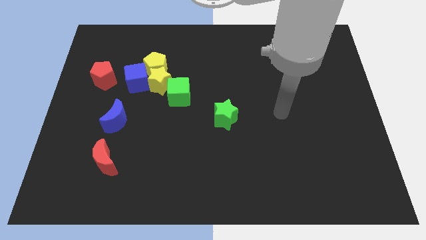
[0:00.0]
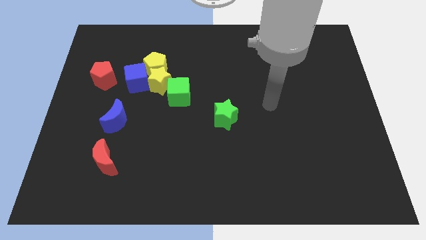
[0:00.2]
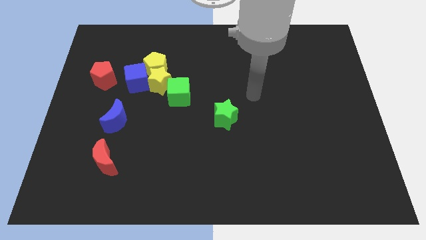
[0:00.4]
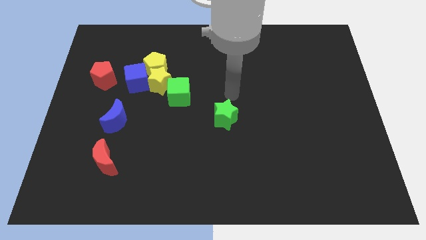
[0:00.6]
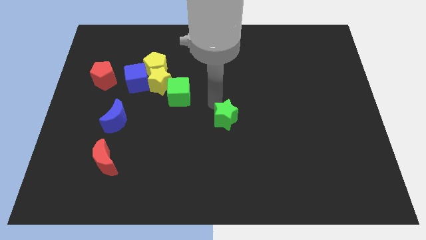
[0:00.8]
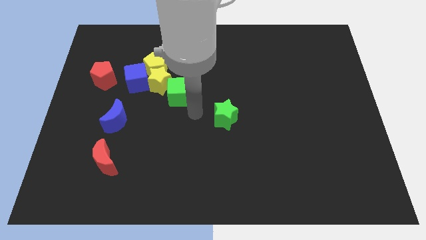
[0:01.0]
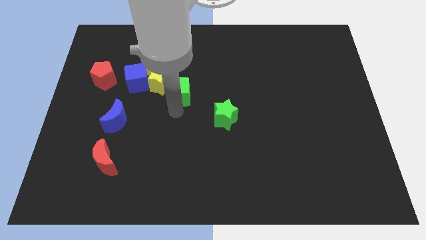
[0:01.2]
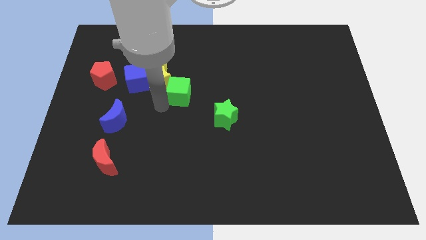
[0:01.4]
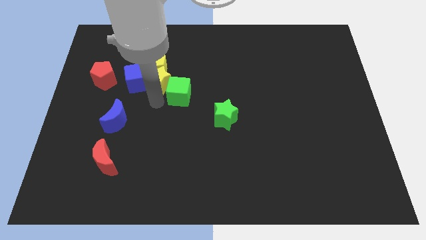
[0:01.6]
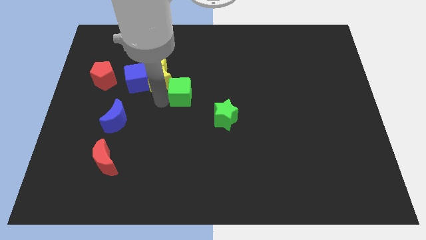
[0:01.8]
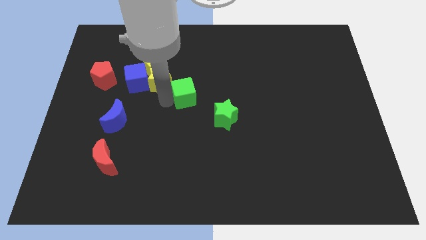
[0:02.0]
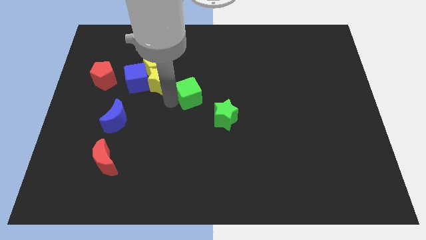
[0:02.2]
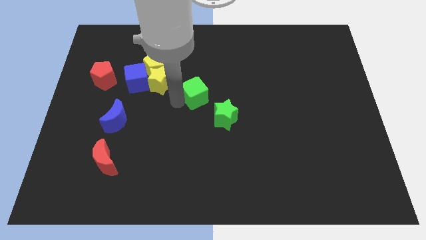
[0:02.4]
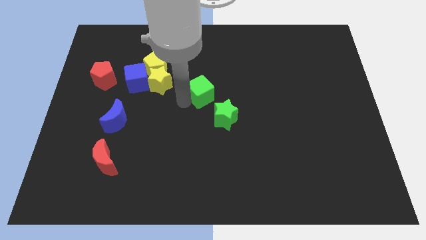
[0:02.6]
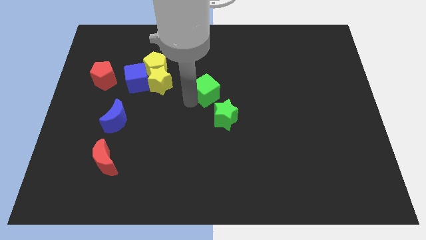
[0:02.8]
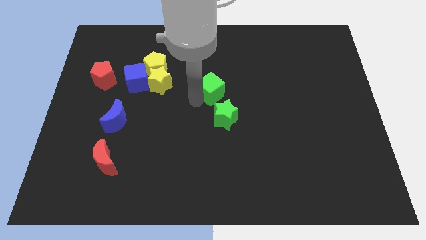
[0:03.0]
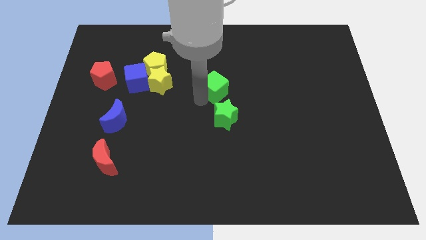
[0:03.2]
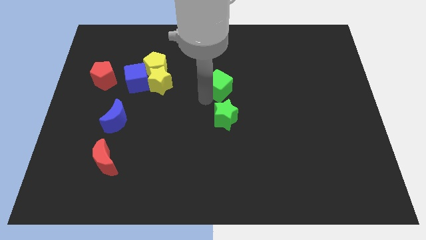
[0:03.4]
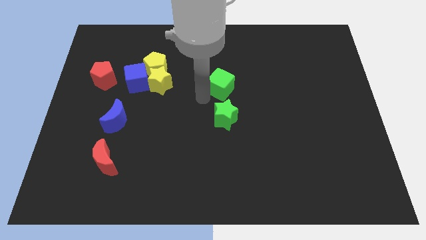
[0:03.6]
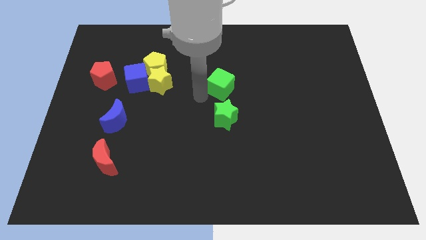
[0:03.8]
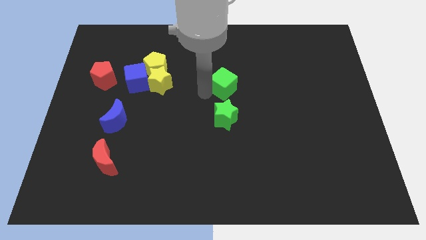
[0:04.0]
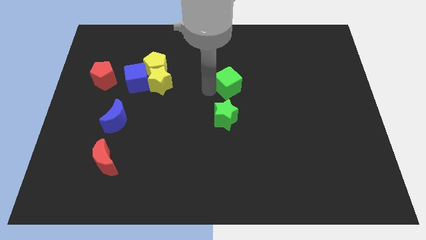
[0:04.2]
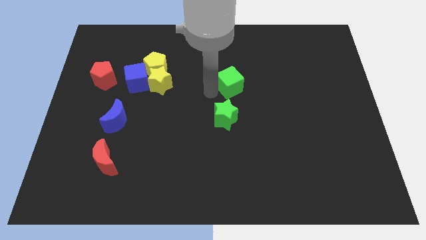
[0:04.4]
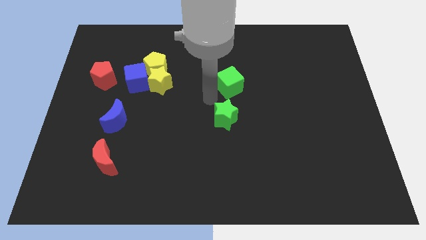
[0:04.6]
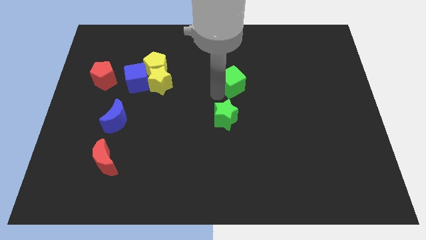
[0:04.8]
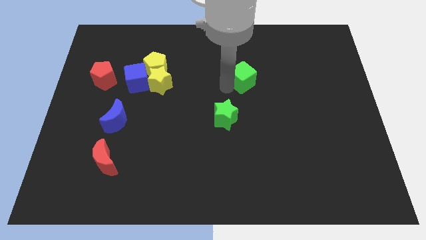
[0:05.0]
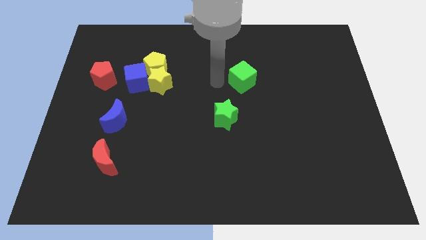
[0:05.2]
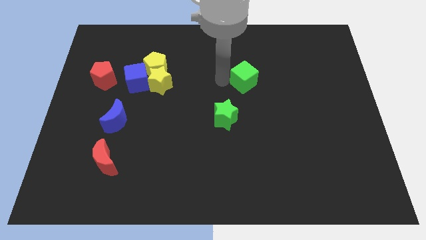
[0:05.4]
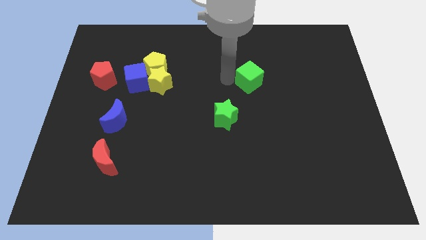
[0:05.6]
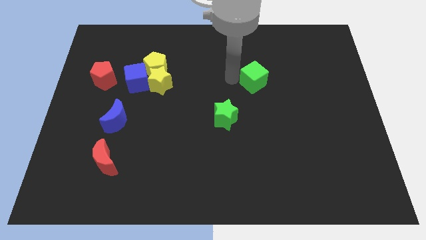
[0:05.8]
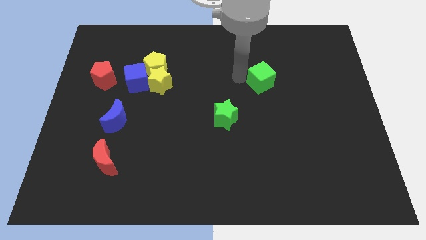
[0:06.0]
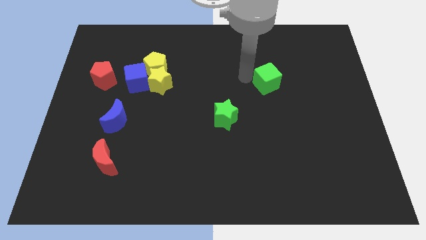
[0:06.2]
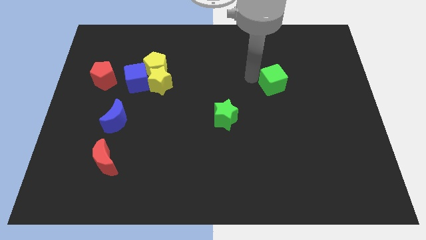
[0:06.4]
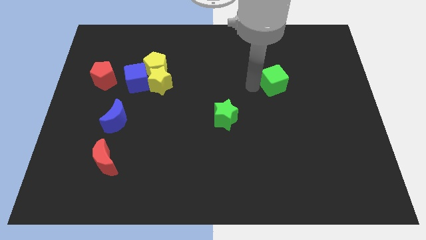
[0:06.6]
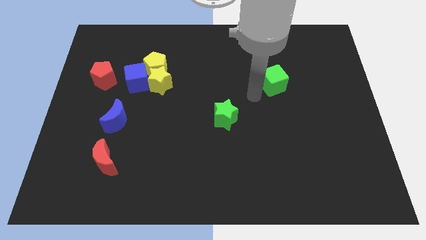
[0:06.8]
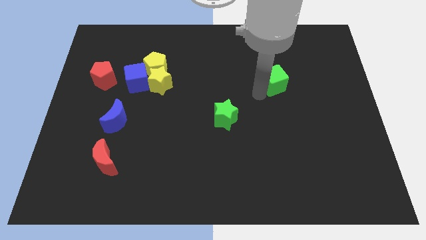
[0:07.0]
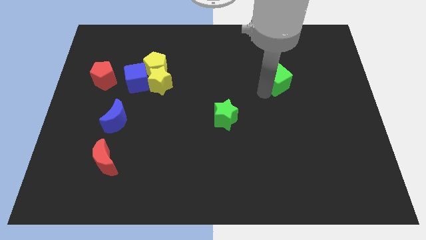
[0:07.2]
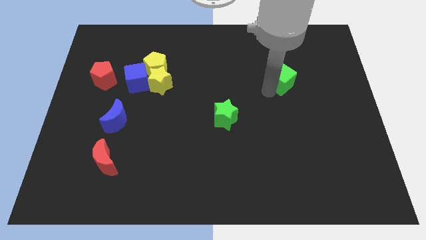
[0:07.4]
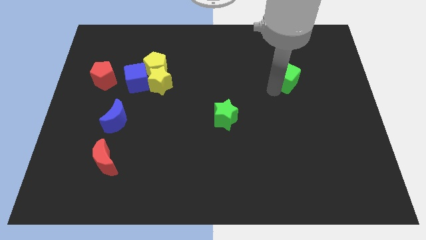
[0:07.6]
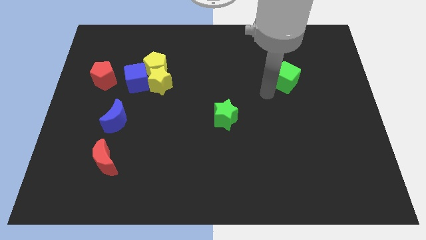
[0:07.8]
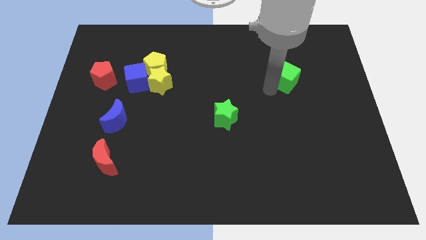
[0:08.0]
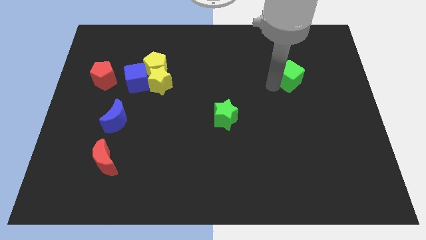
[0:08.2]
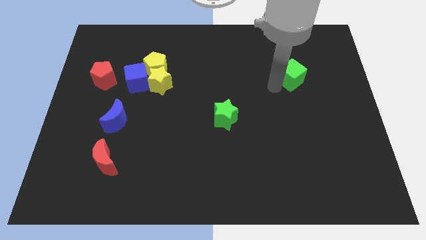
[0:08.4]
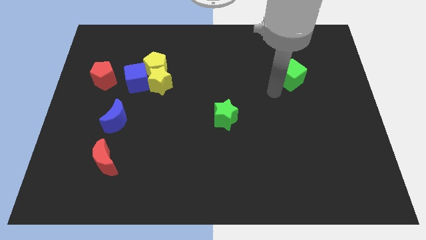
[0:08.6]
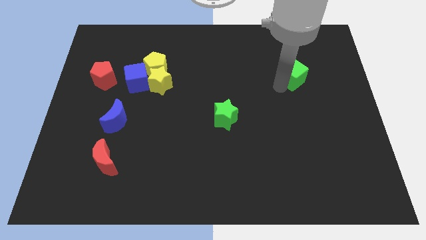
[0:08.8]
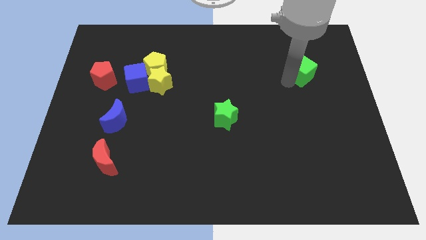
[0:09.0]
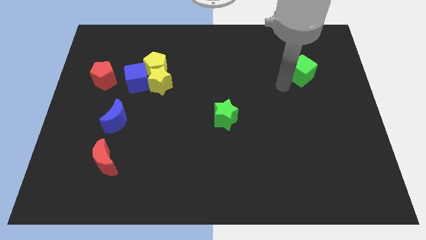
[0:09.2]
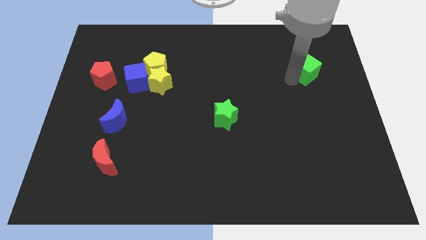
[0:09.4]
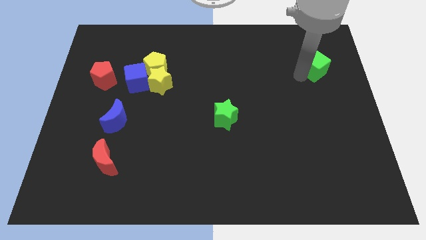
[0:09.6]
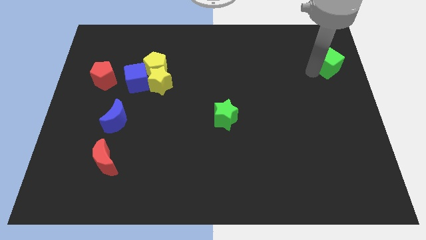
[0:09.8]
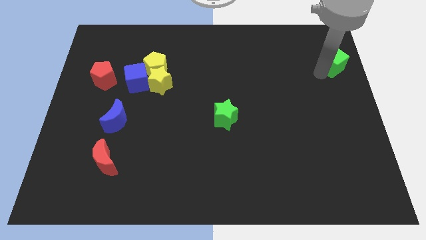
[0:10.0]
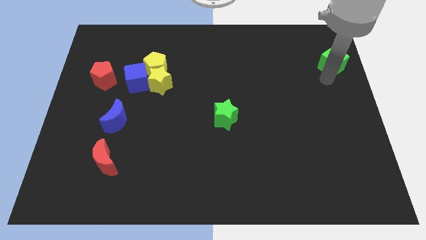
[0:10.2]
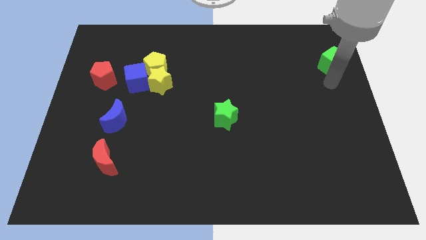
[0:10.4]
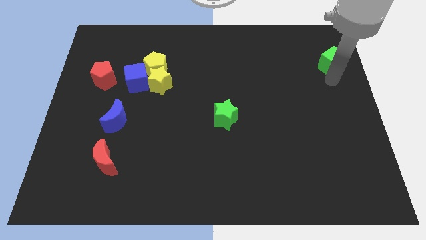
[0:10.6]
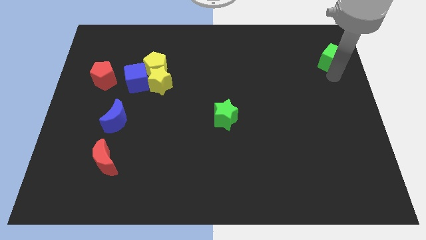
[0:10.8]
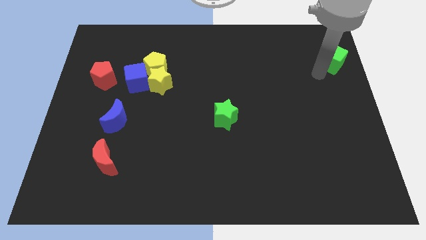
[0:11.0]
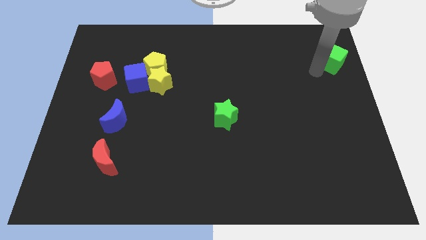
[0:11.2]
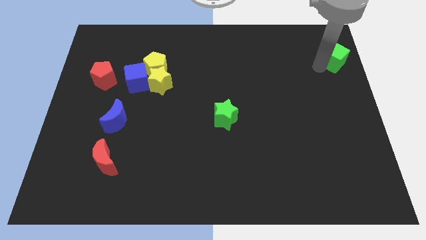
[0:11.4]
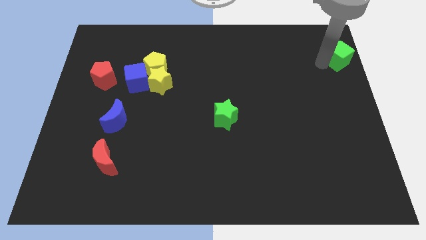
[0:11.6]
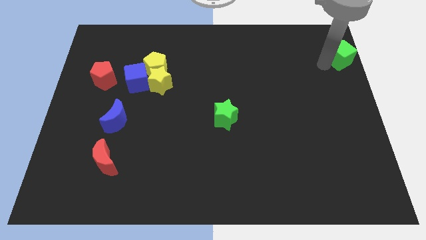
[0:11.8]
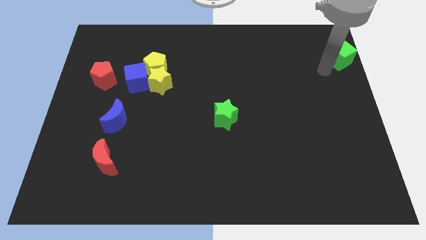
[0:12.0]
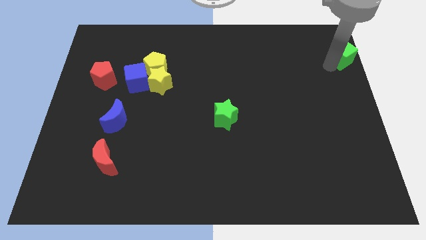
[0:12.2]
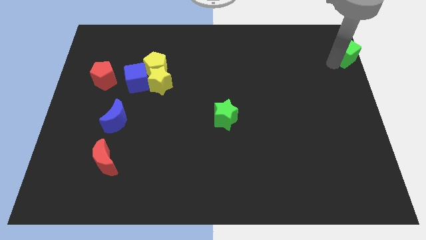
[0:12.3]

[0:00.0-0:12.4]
put the green cube to the top right

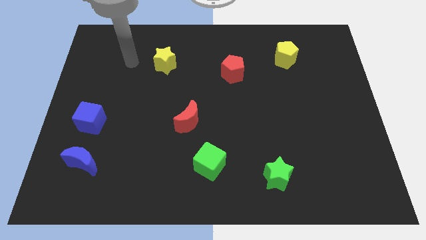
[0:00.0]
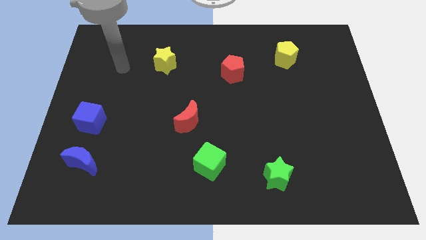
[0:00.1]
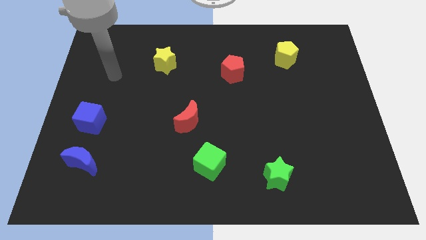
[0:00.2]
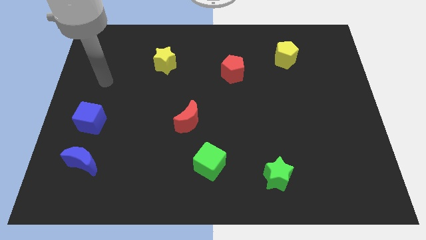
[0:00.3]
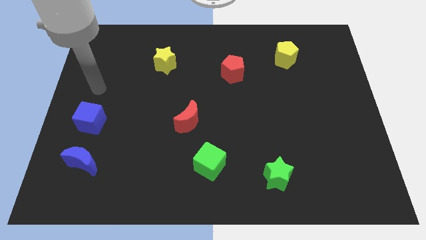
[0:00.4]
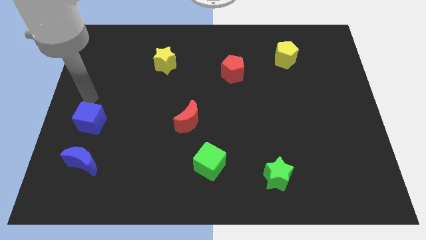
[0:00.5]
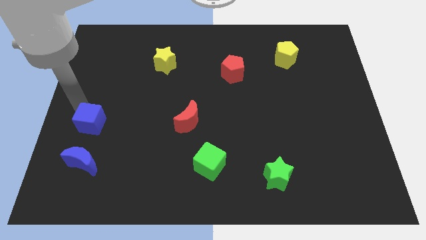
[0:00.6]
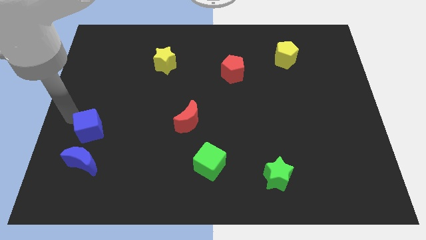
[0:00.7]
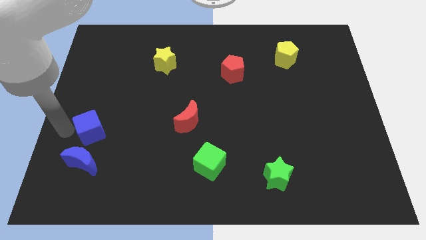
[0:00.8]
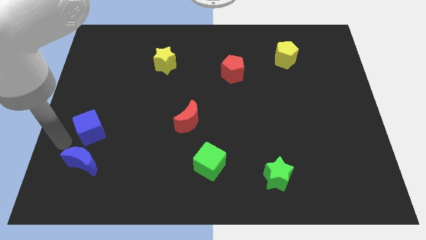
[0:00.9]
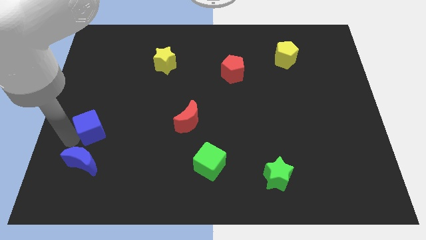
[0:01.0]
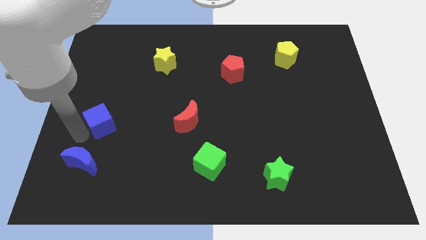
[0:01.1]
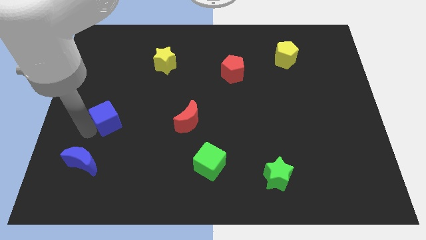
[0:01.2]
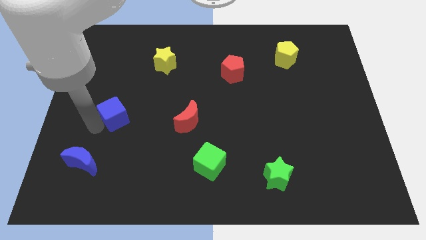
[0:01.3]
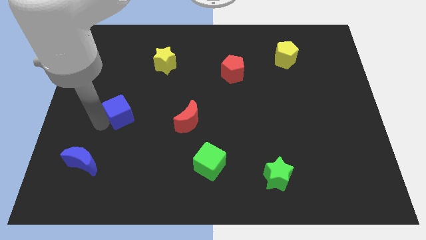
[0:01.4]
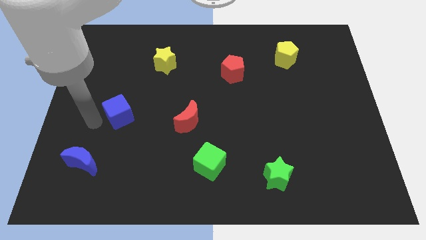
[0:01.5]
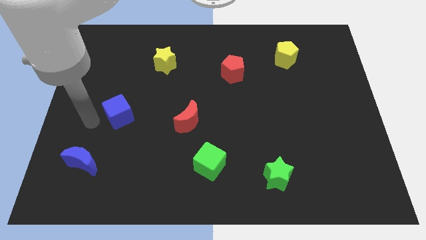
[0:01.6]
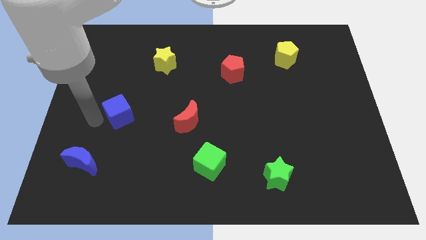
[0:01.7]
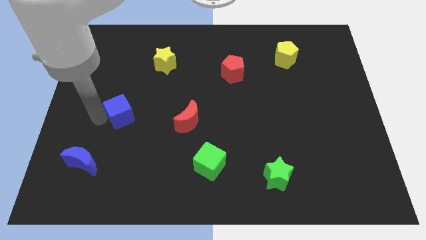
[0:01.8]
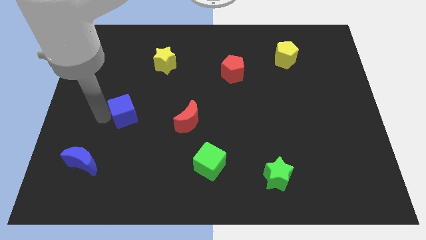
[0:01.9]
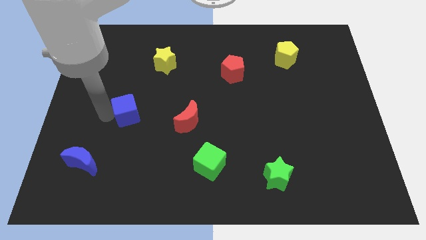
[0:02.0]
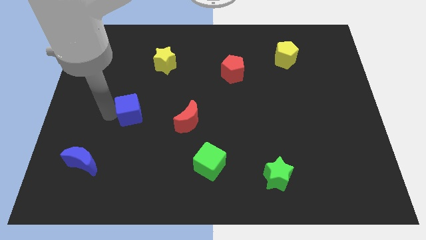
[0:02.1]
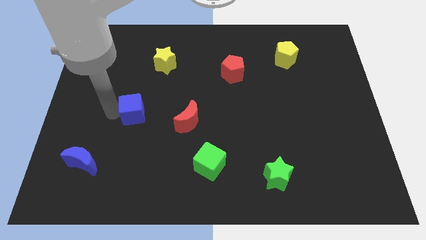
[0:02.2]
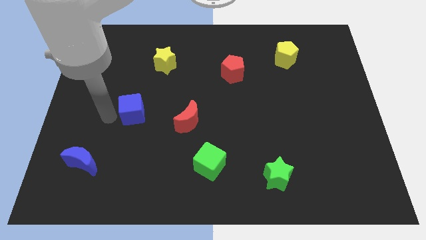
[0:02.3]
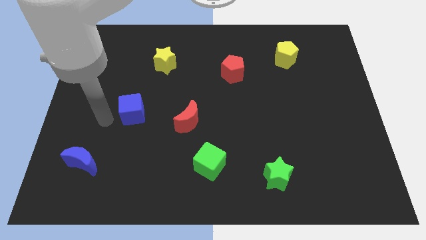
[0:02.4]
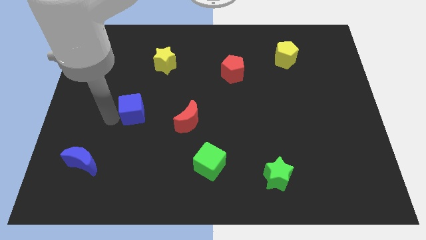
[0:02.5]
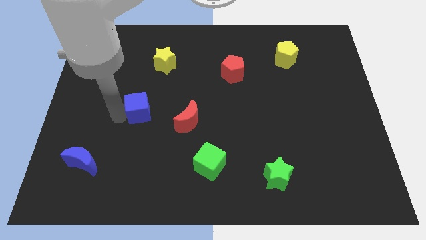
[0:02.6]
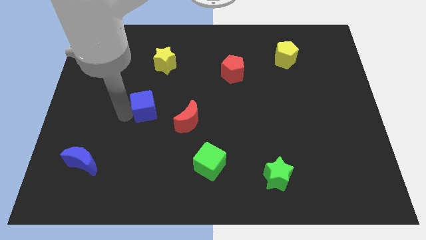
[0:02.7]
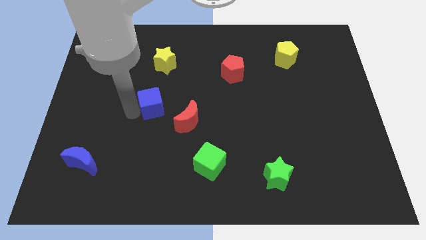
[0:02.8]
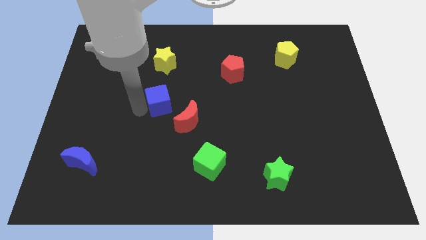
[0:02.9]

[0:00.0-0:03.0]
put the blue cube to the center of the board
